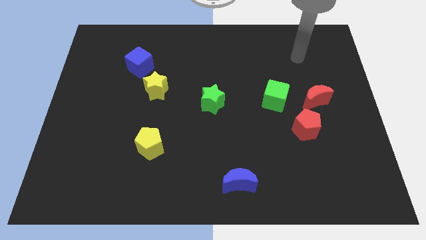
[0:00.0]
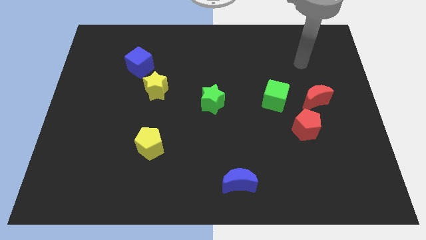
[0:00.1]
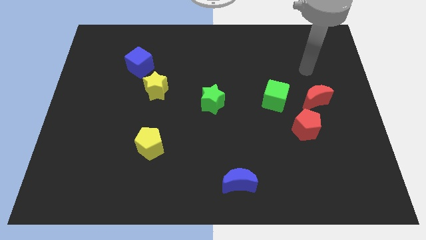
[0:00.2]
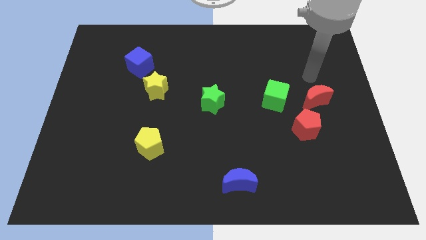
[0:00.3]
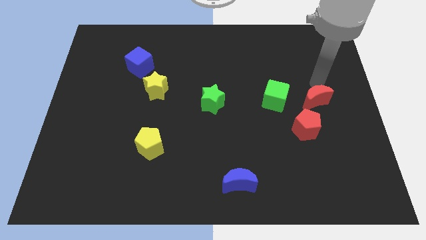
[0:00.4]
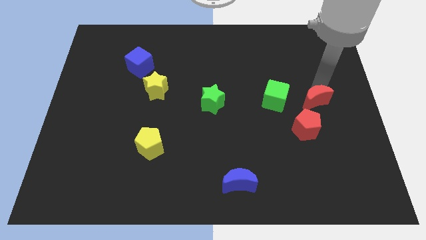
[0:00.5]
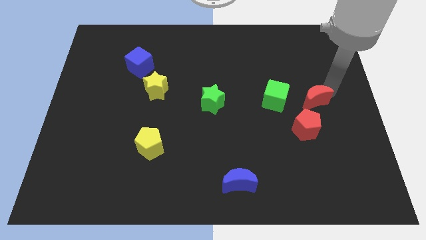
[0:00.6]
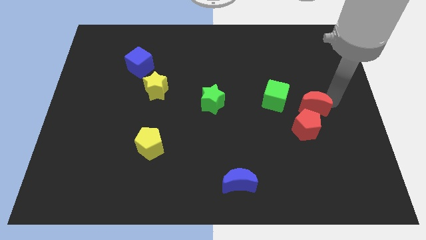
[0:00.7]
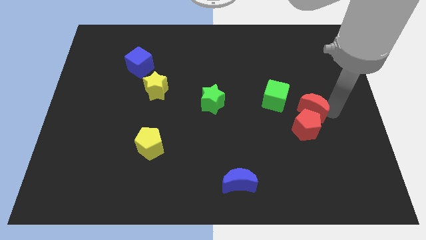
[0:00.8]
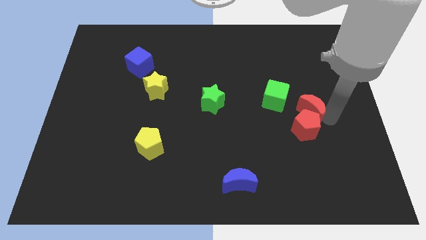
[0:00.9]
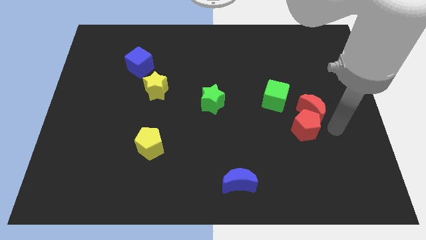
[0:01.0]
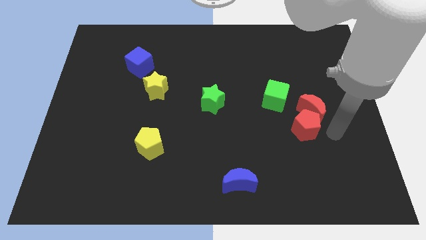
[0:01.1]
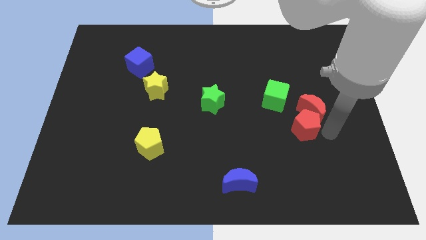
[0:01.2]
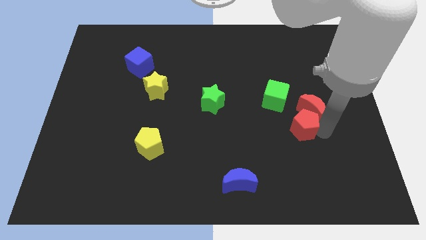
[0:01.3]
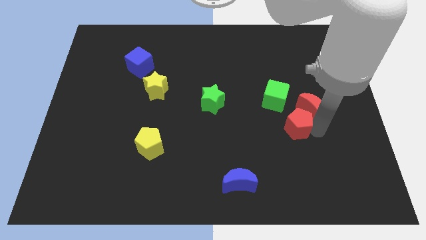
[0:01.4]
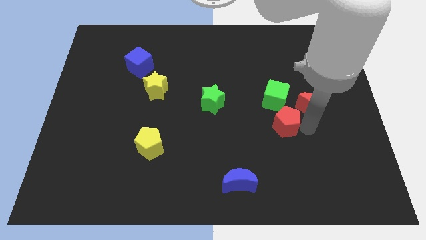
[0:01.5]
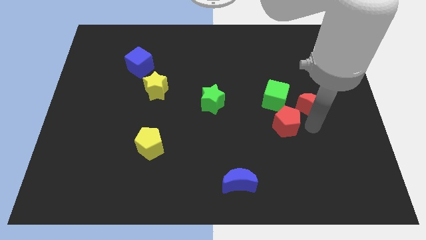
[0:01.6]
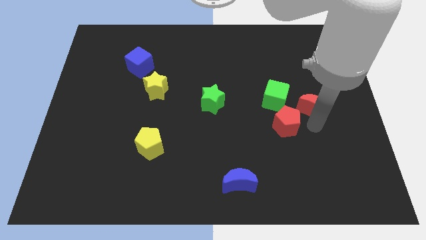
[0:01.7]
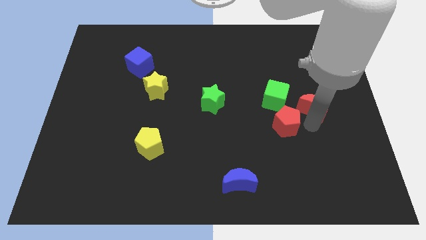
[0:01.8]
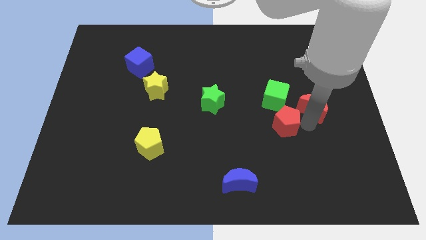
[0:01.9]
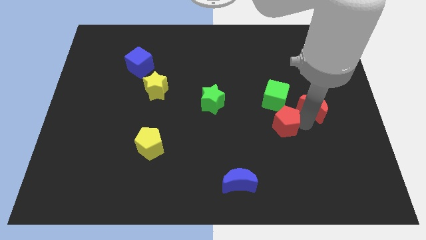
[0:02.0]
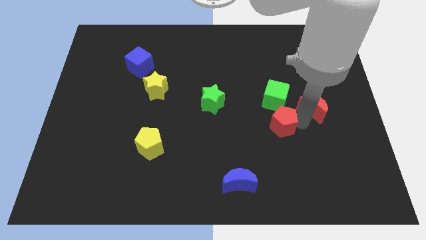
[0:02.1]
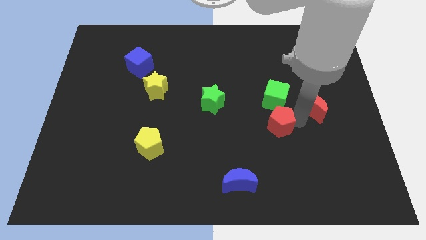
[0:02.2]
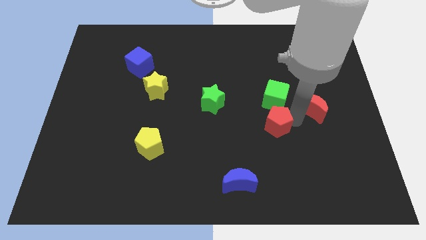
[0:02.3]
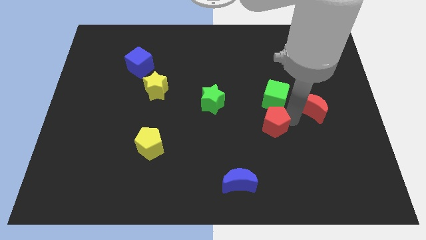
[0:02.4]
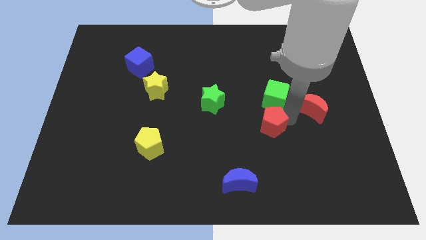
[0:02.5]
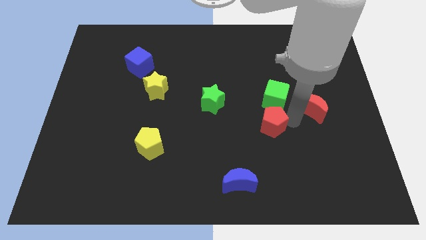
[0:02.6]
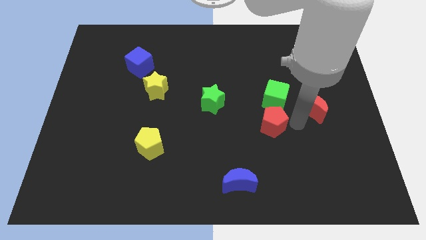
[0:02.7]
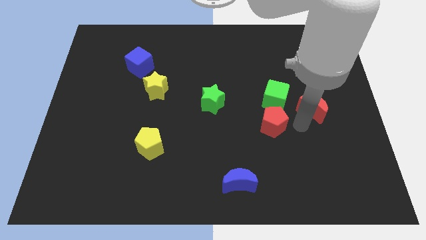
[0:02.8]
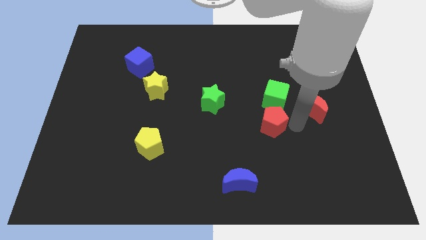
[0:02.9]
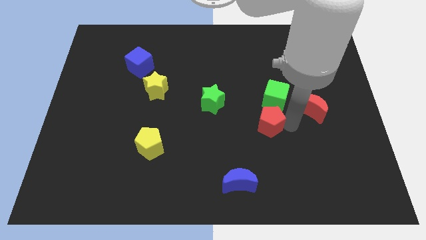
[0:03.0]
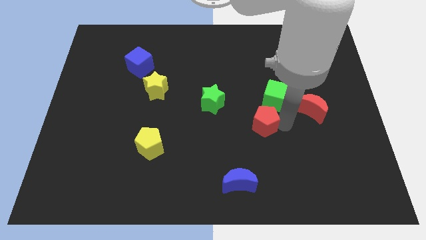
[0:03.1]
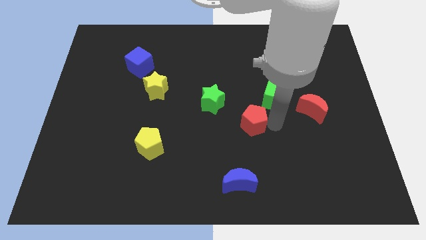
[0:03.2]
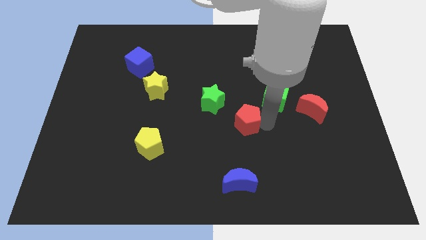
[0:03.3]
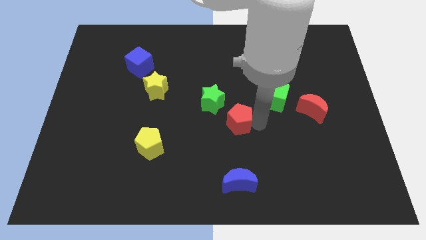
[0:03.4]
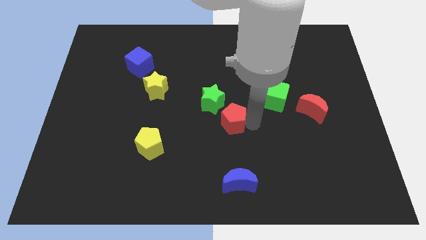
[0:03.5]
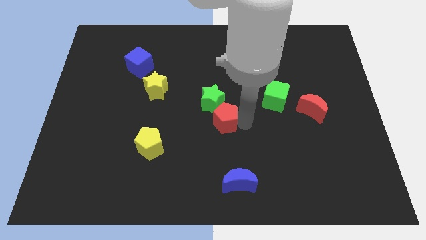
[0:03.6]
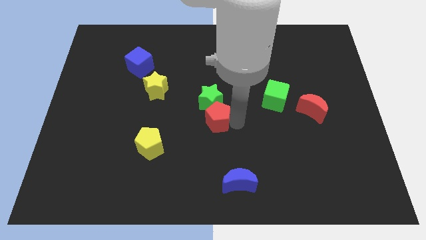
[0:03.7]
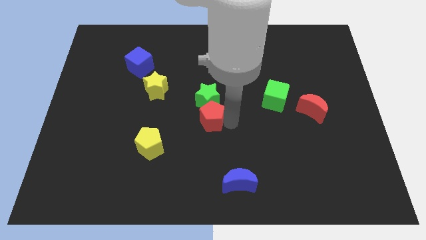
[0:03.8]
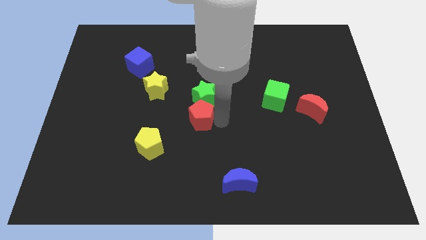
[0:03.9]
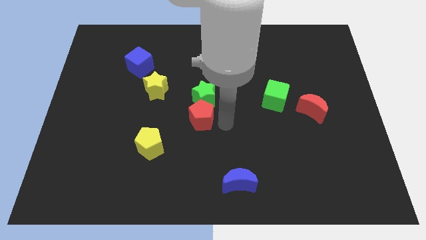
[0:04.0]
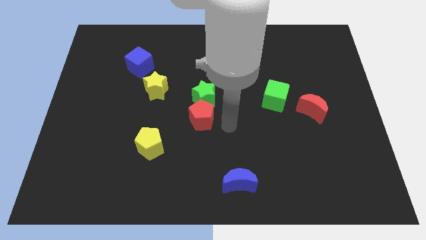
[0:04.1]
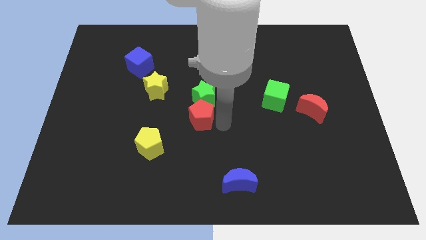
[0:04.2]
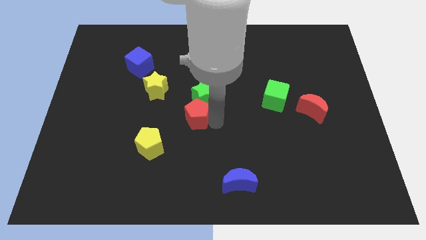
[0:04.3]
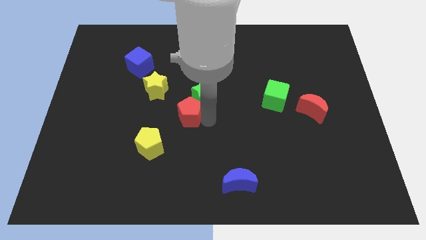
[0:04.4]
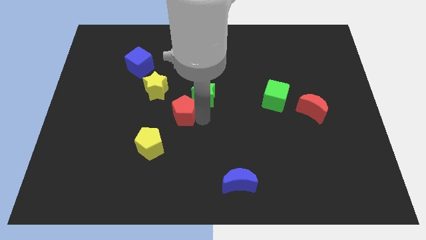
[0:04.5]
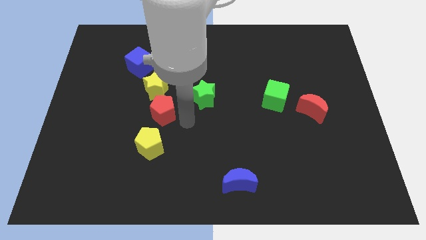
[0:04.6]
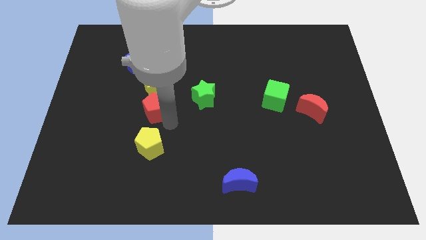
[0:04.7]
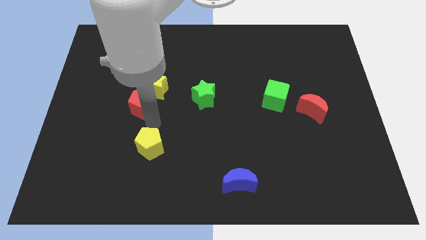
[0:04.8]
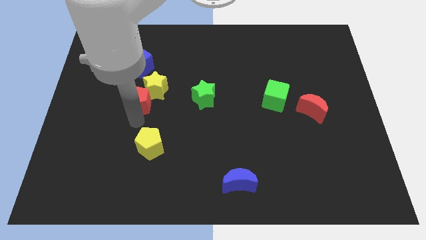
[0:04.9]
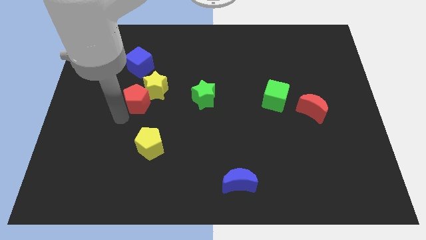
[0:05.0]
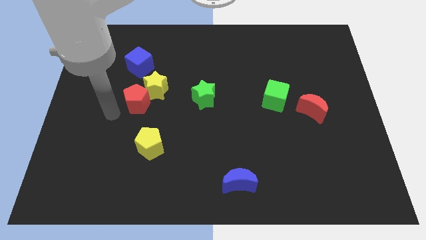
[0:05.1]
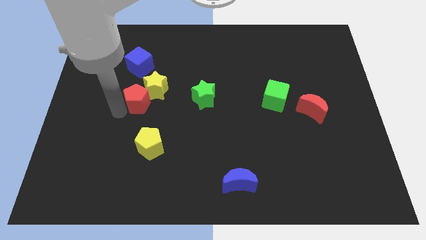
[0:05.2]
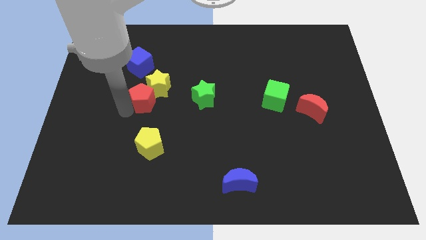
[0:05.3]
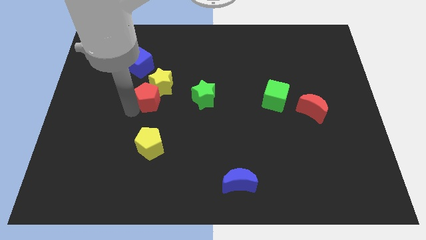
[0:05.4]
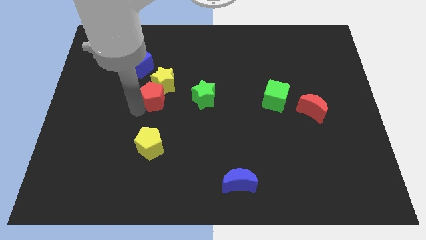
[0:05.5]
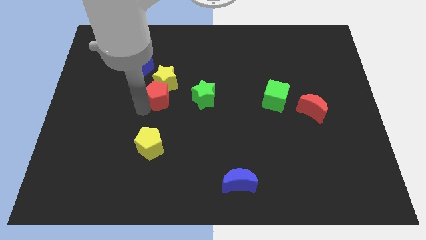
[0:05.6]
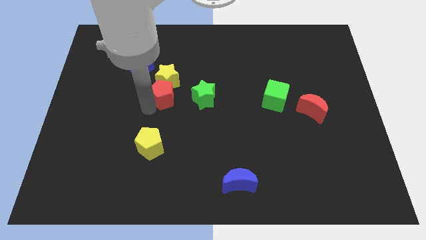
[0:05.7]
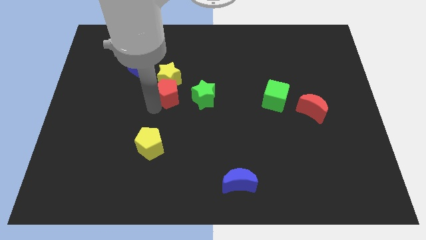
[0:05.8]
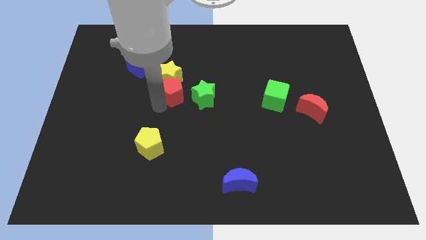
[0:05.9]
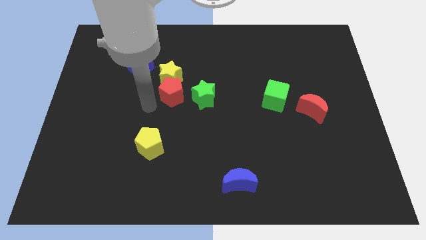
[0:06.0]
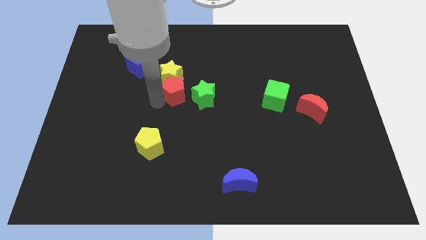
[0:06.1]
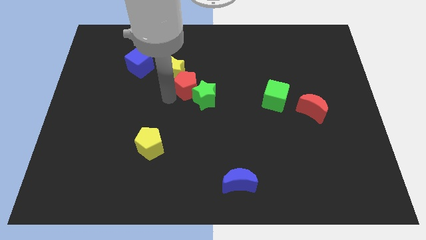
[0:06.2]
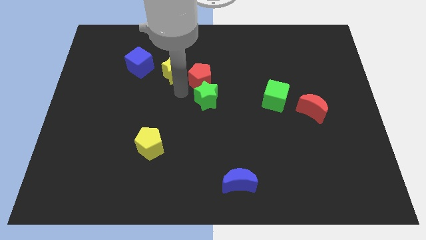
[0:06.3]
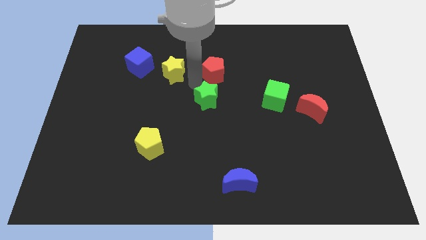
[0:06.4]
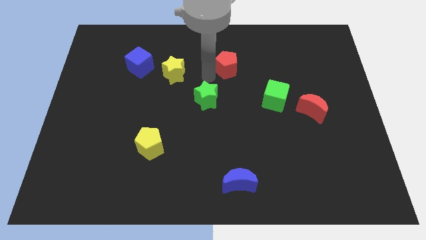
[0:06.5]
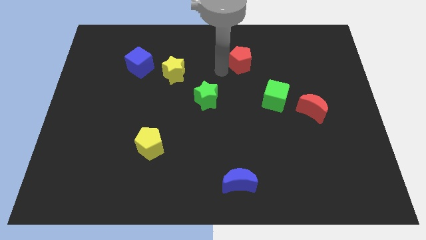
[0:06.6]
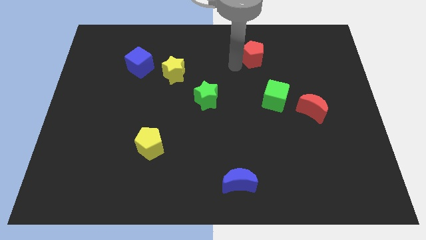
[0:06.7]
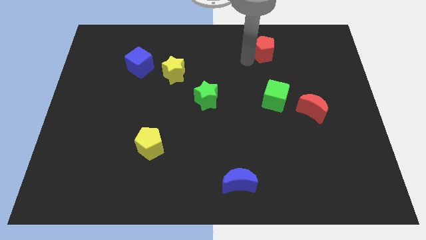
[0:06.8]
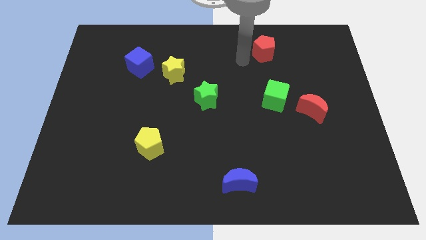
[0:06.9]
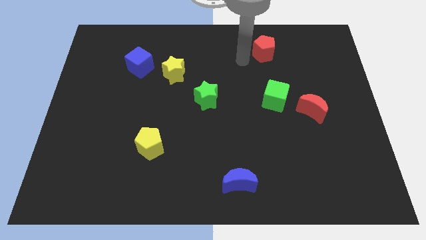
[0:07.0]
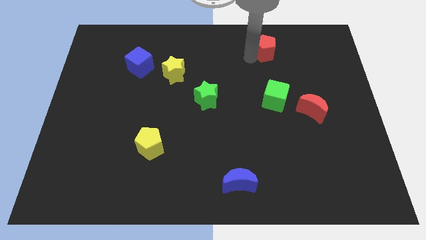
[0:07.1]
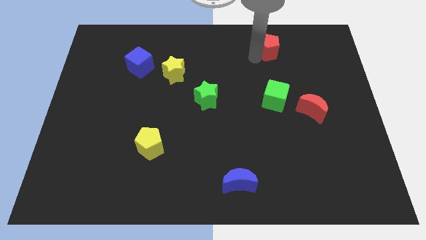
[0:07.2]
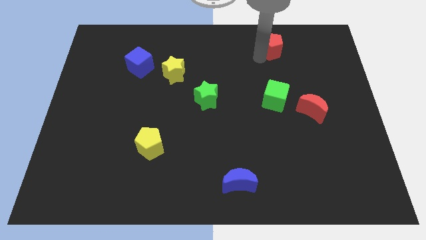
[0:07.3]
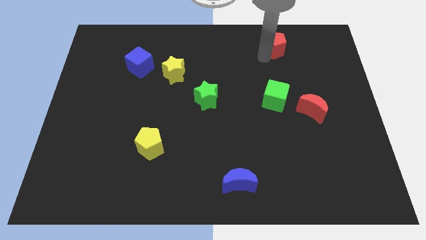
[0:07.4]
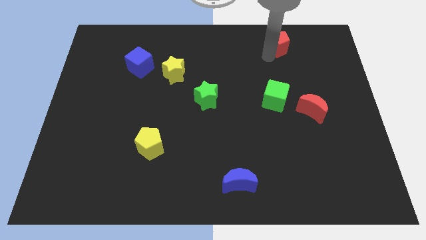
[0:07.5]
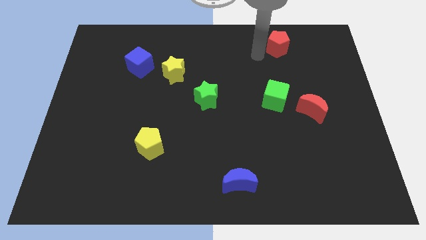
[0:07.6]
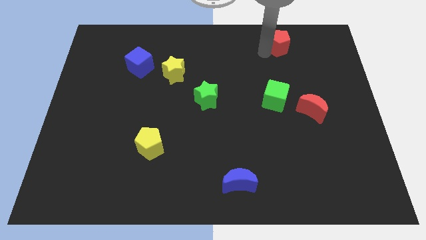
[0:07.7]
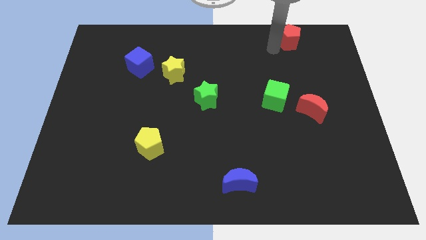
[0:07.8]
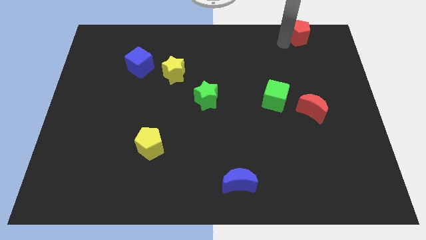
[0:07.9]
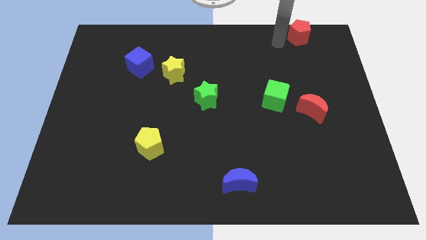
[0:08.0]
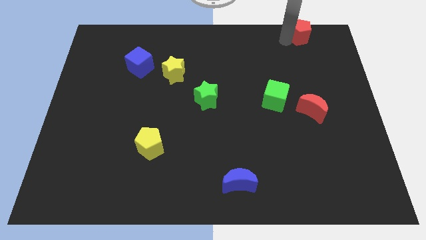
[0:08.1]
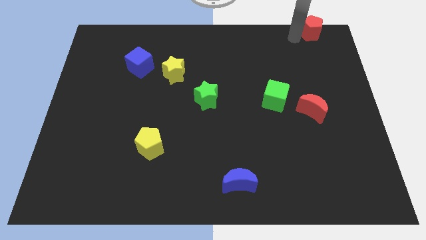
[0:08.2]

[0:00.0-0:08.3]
push the red pentagon to the upper right corner
